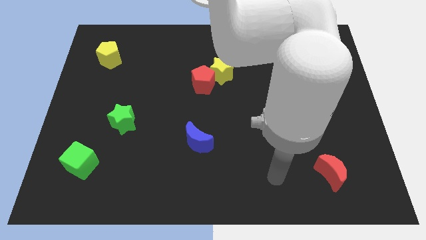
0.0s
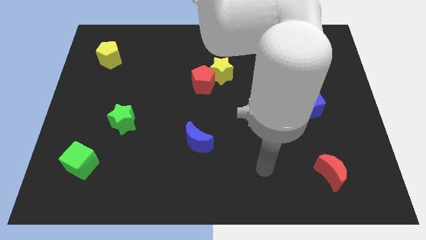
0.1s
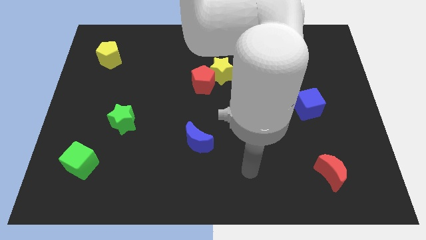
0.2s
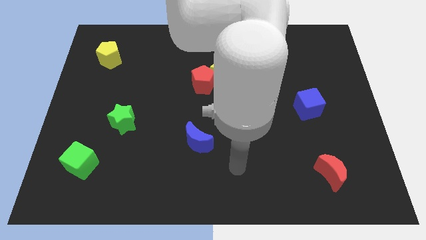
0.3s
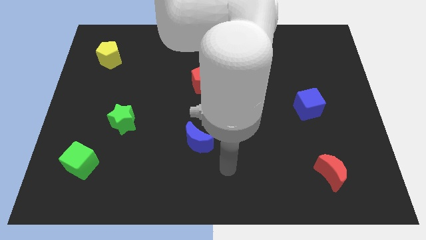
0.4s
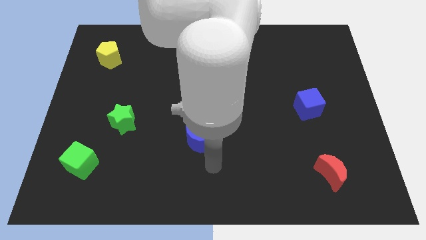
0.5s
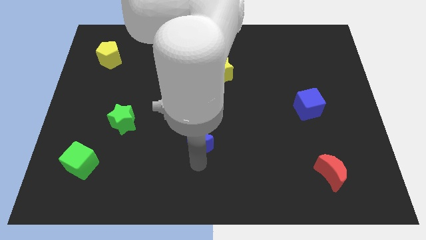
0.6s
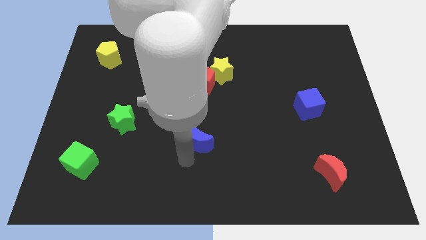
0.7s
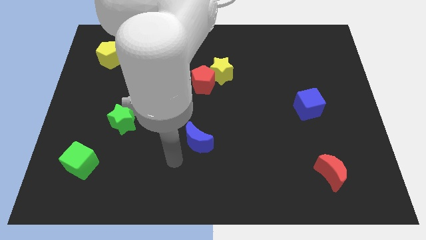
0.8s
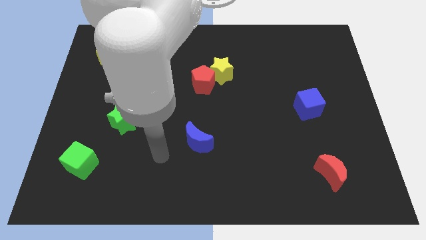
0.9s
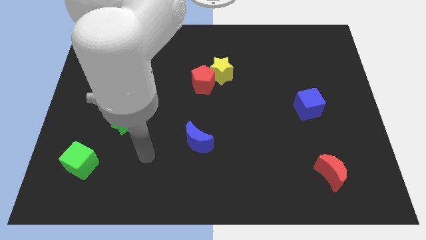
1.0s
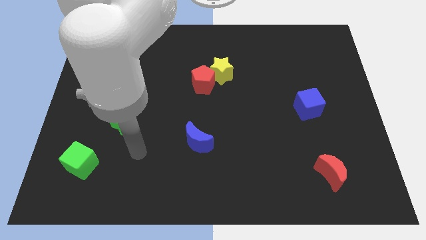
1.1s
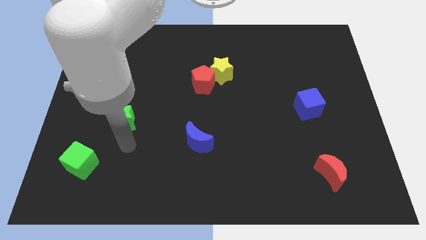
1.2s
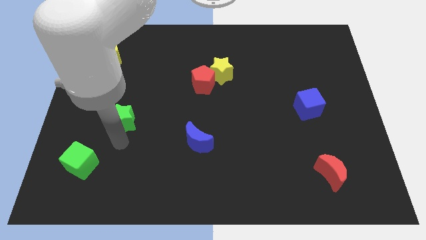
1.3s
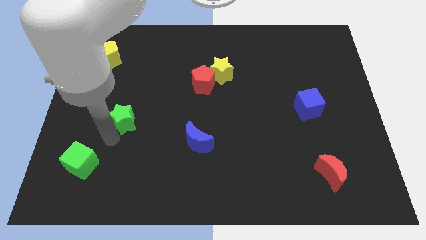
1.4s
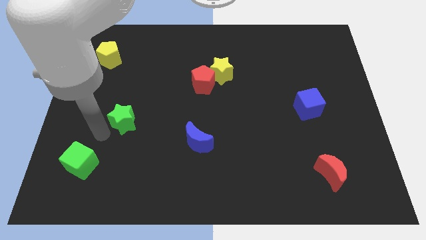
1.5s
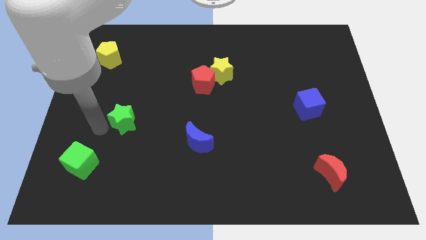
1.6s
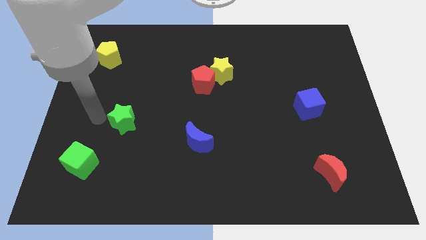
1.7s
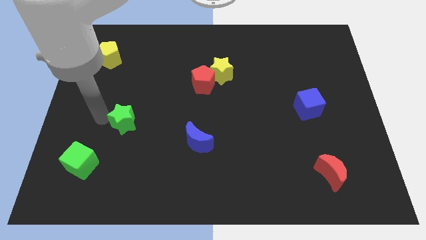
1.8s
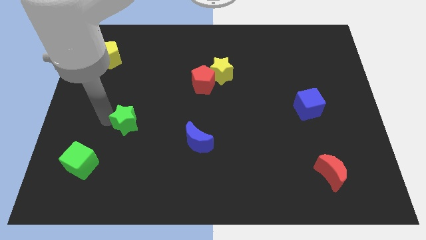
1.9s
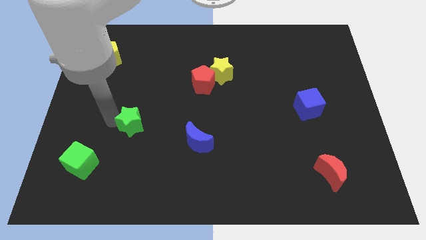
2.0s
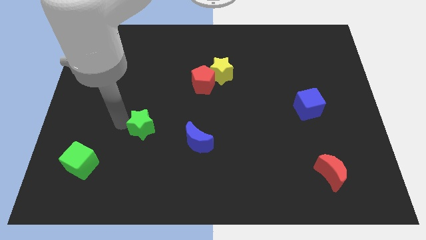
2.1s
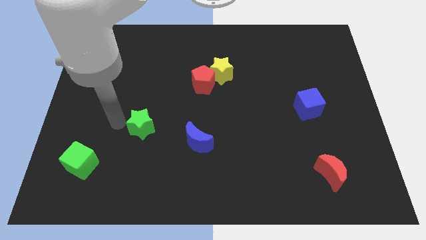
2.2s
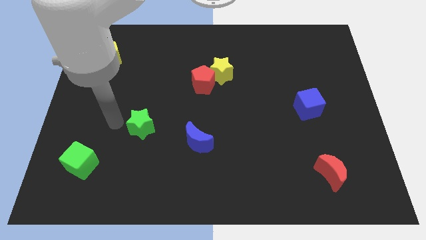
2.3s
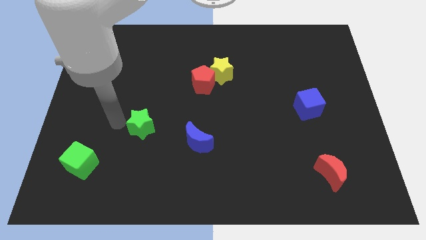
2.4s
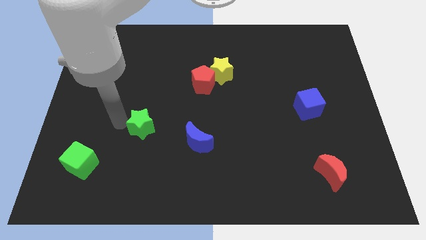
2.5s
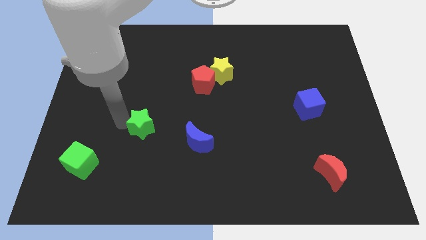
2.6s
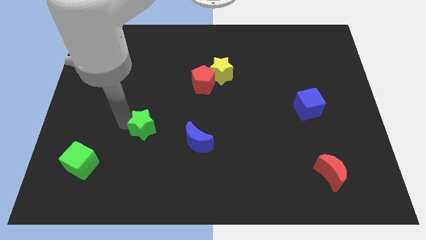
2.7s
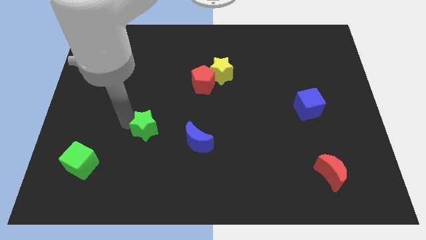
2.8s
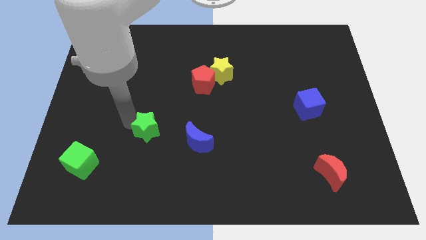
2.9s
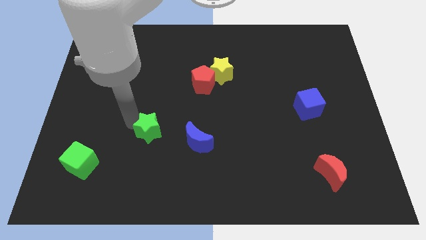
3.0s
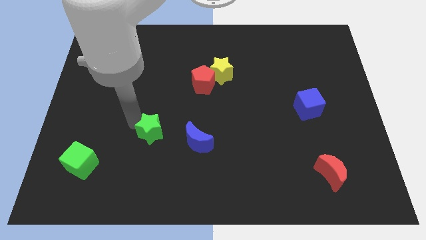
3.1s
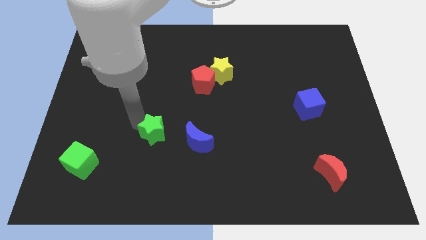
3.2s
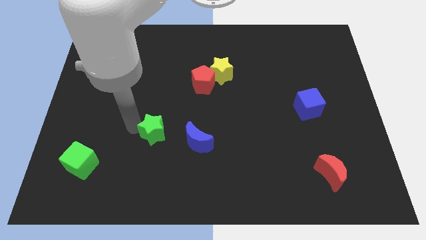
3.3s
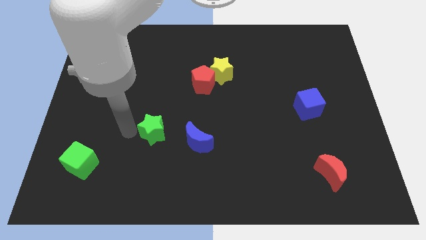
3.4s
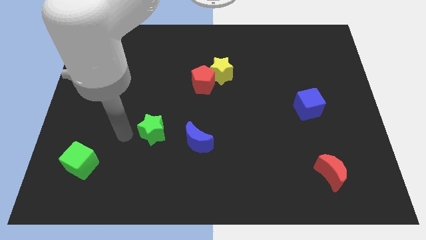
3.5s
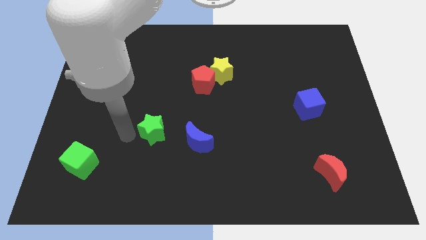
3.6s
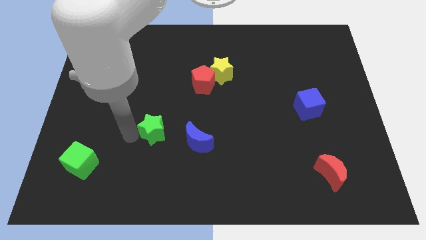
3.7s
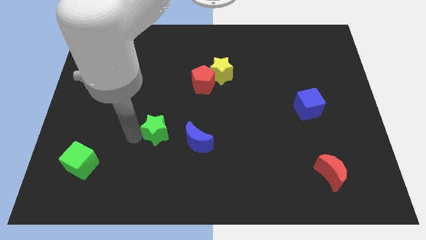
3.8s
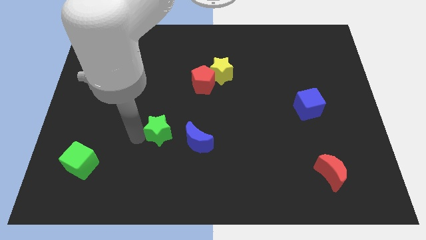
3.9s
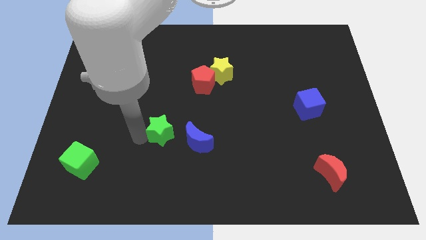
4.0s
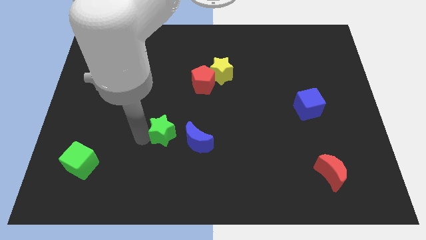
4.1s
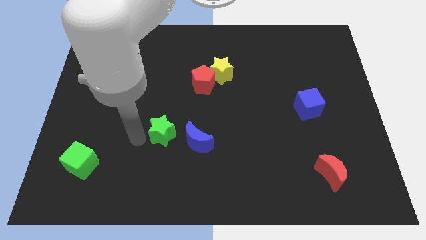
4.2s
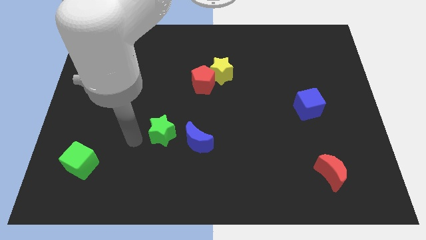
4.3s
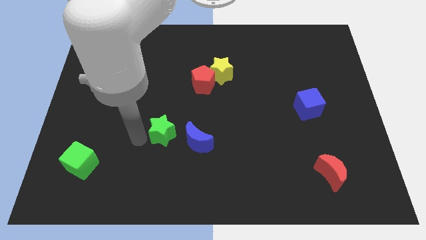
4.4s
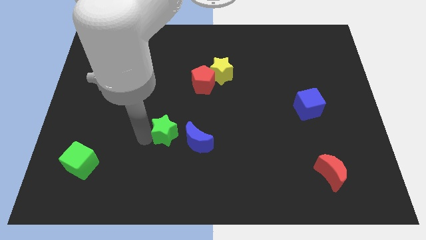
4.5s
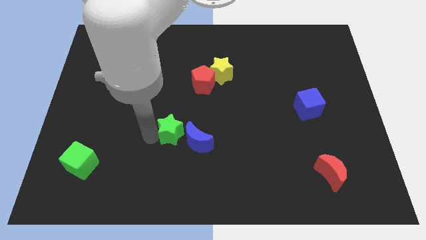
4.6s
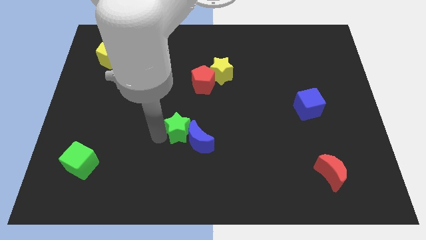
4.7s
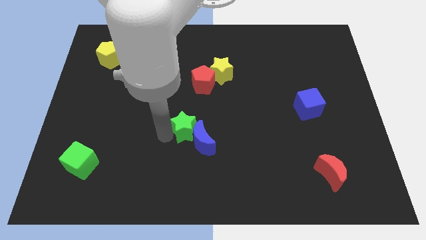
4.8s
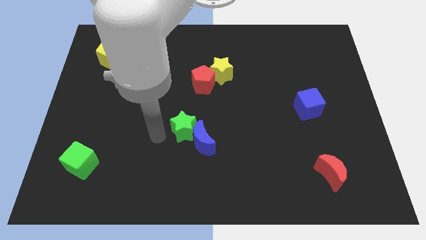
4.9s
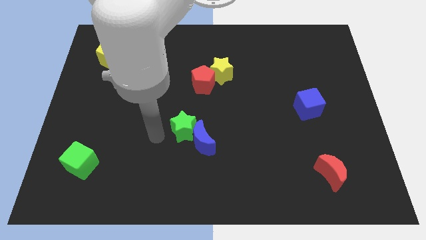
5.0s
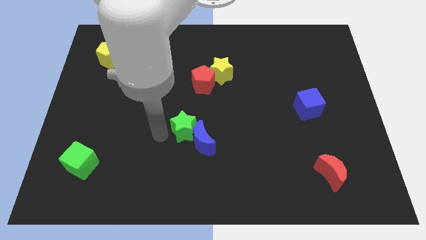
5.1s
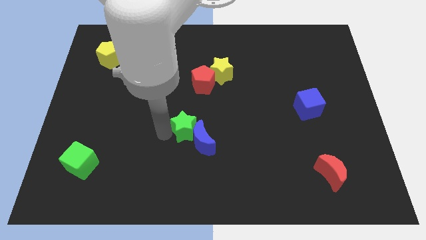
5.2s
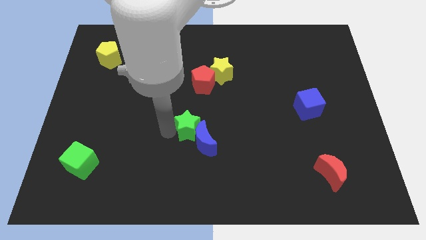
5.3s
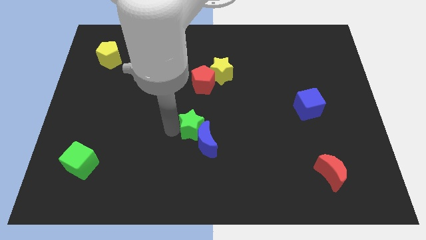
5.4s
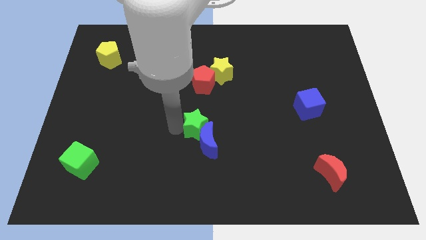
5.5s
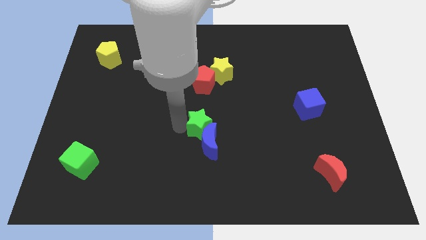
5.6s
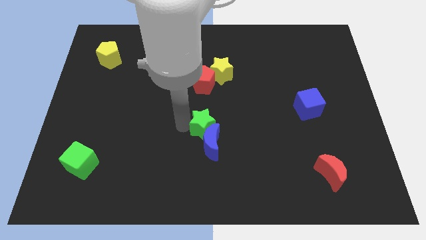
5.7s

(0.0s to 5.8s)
slide the green star to the top right side of the blue moon

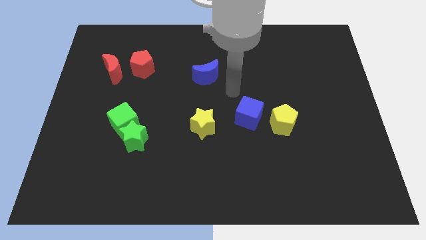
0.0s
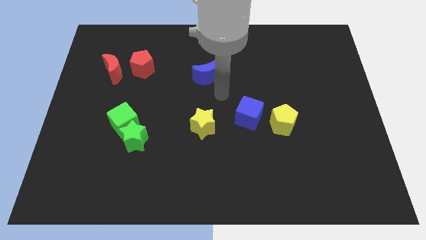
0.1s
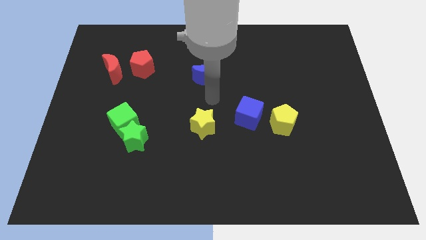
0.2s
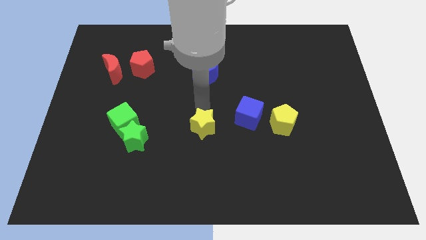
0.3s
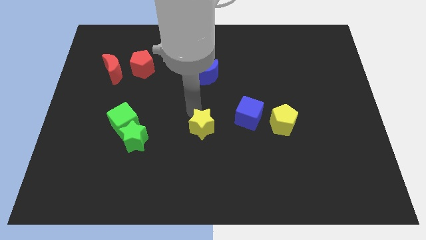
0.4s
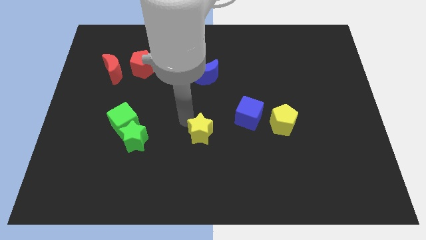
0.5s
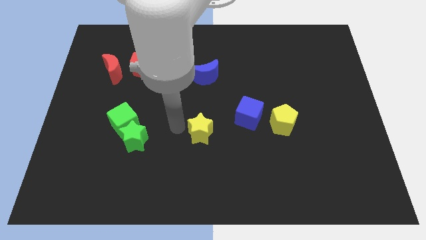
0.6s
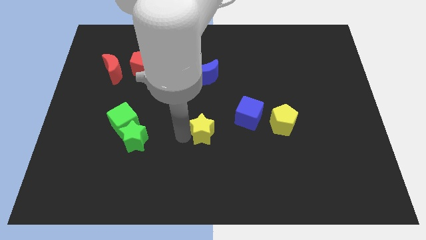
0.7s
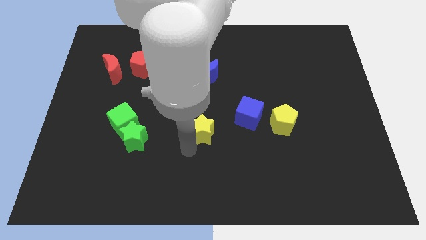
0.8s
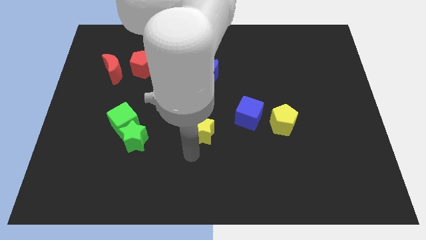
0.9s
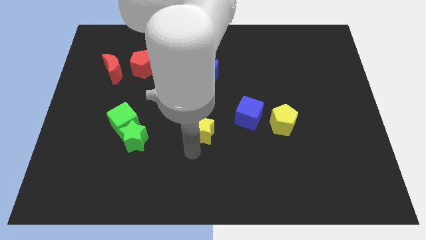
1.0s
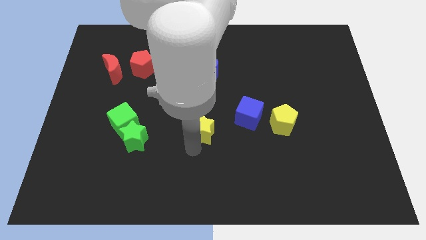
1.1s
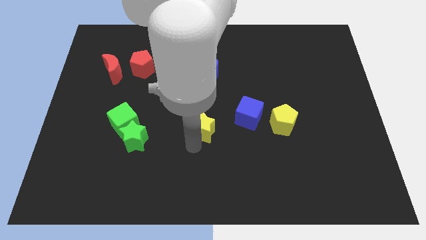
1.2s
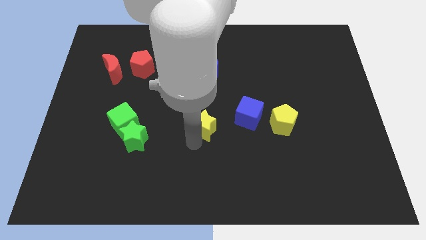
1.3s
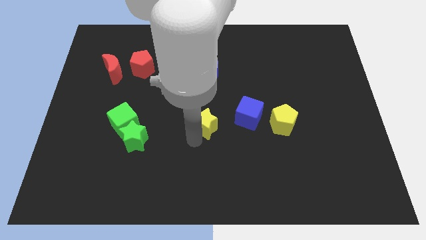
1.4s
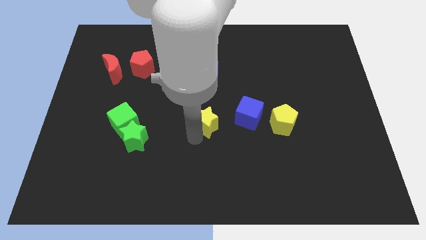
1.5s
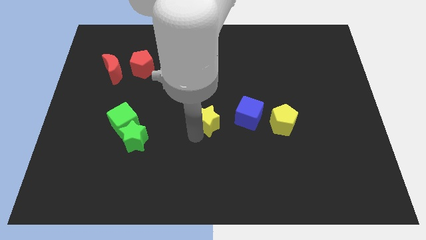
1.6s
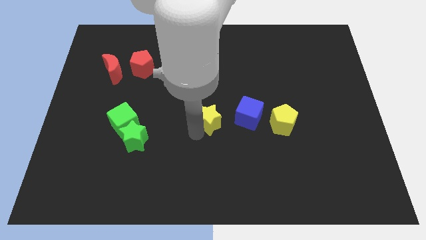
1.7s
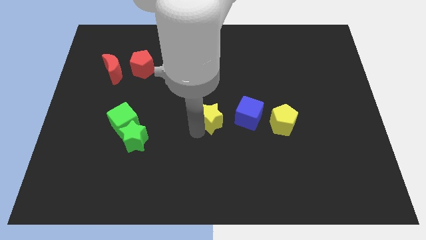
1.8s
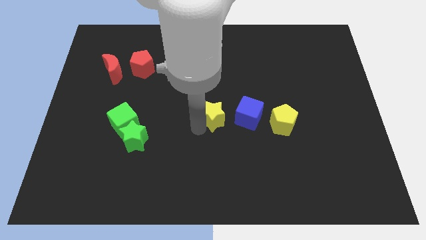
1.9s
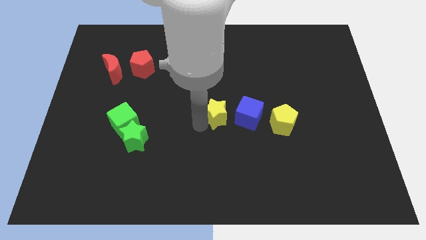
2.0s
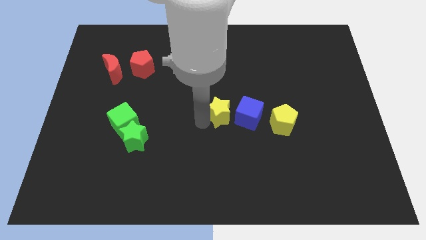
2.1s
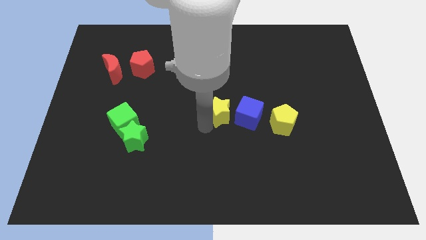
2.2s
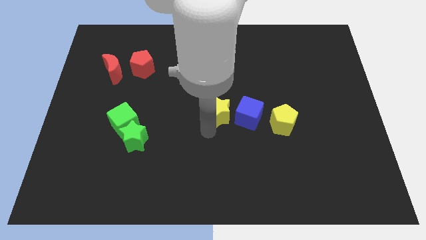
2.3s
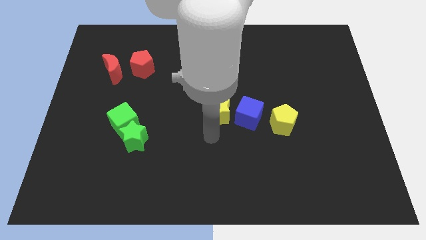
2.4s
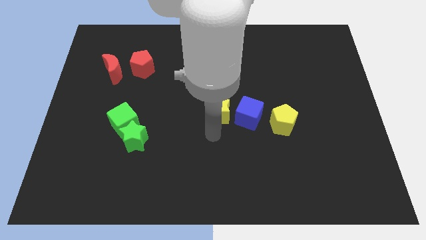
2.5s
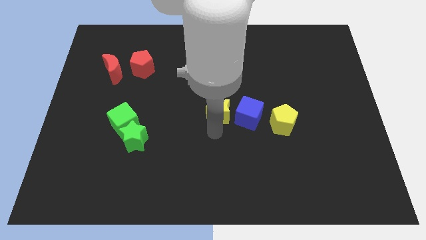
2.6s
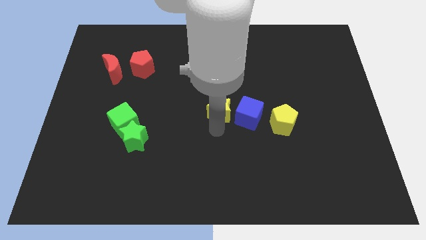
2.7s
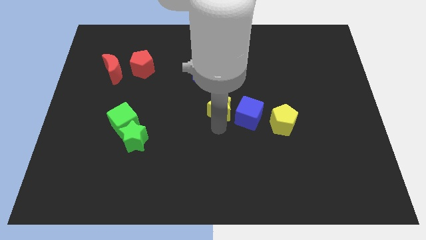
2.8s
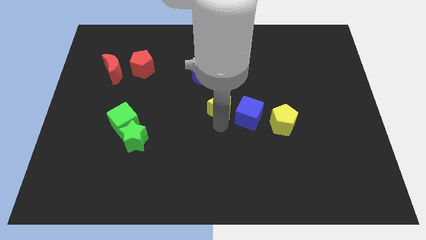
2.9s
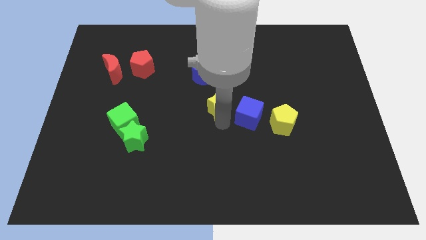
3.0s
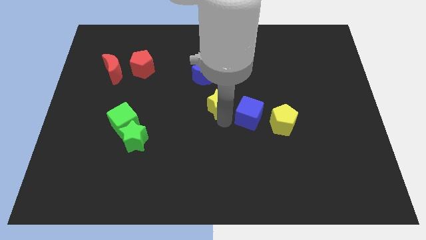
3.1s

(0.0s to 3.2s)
slide the yellow star diagonally down and to the right of the blue moon
